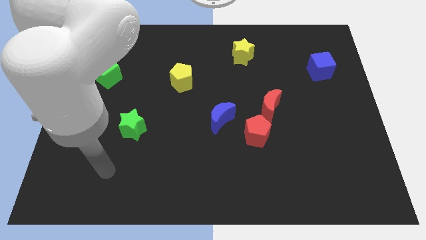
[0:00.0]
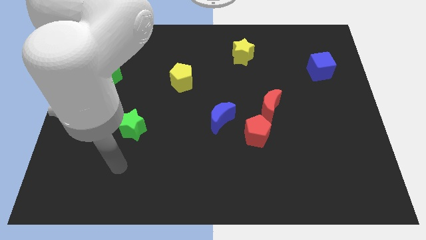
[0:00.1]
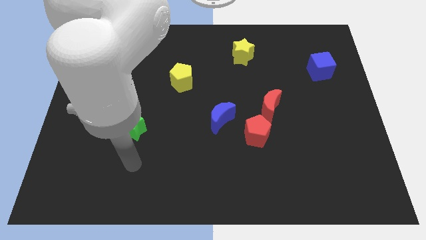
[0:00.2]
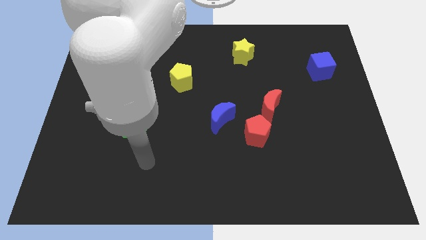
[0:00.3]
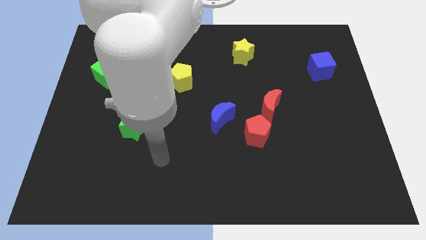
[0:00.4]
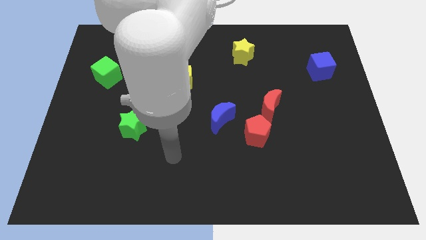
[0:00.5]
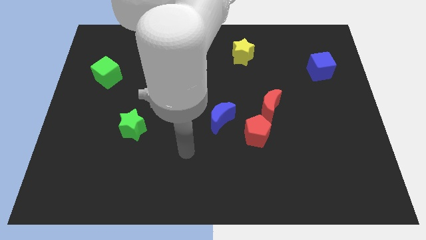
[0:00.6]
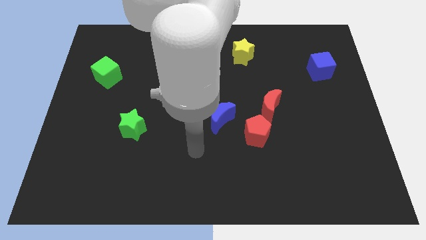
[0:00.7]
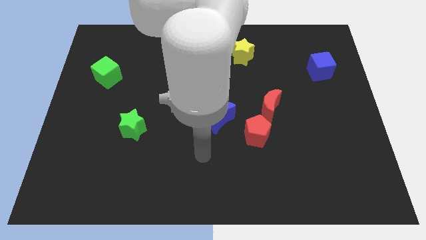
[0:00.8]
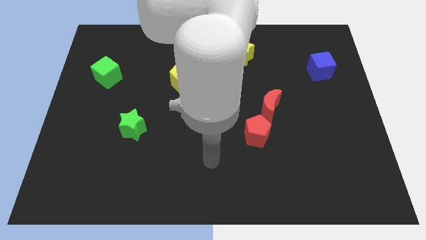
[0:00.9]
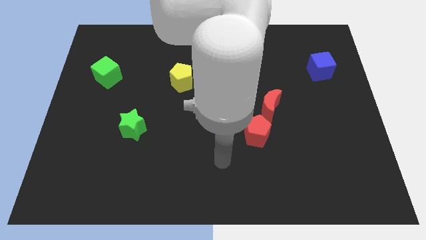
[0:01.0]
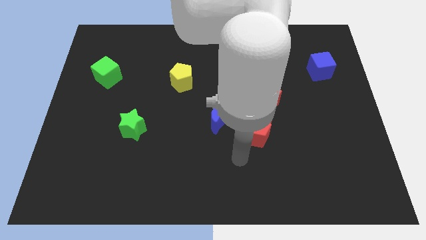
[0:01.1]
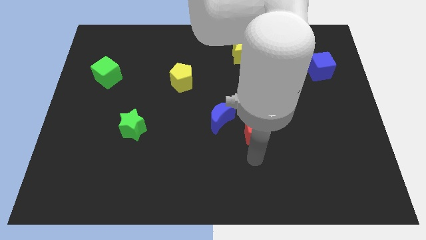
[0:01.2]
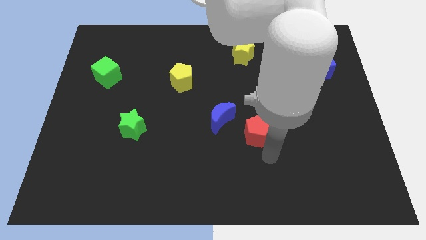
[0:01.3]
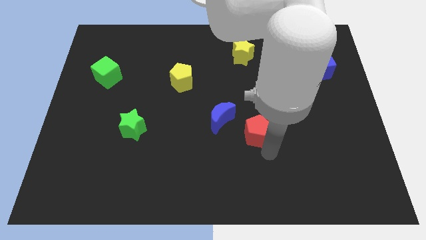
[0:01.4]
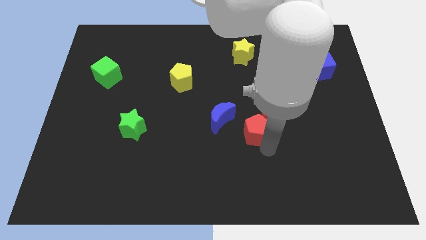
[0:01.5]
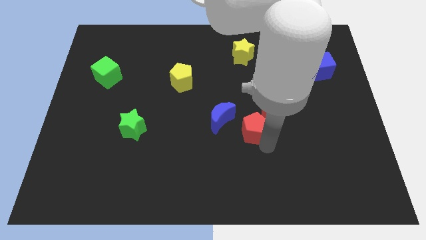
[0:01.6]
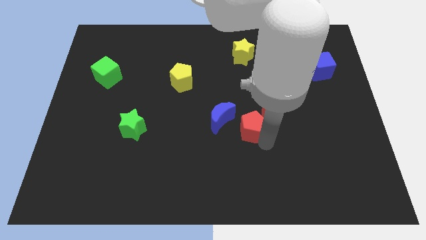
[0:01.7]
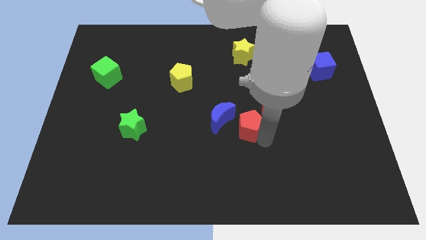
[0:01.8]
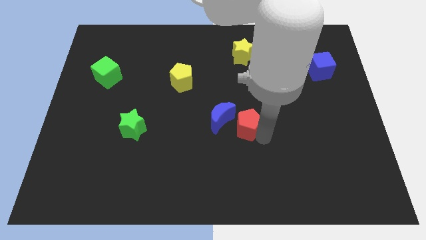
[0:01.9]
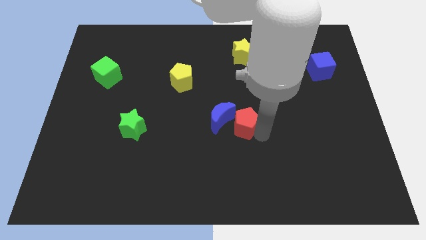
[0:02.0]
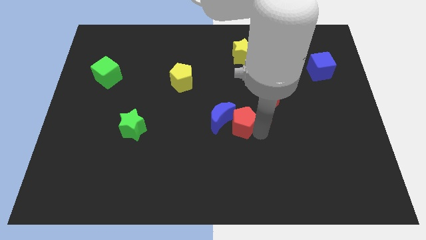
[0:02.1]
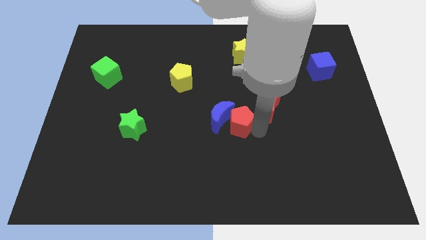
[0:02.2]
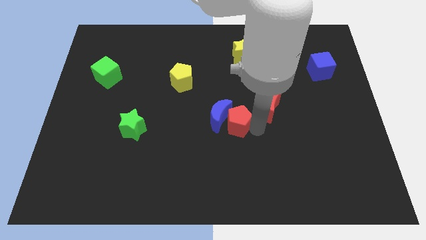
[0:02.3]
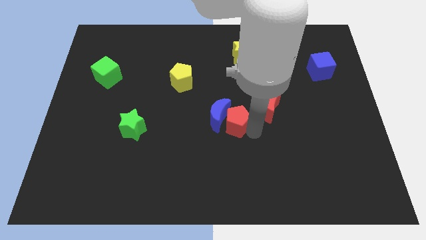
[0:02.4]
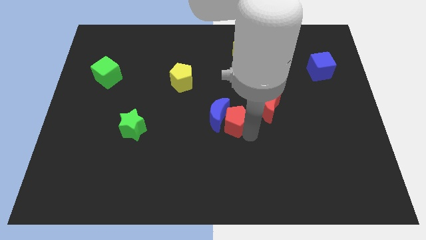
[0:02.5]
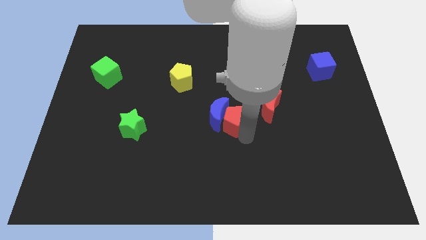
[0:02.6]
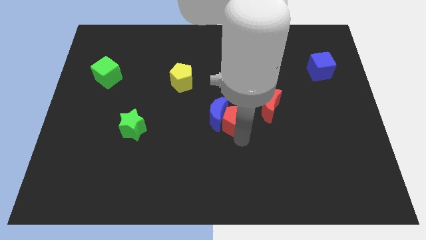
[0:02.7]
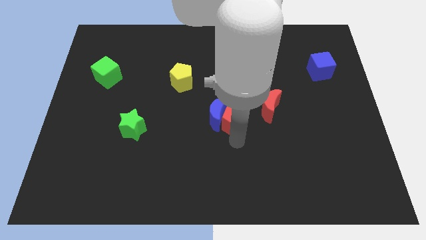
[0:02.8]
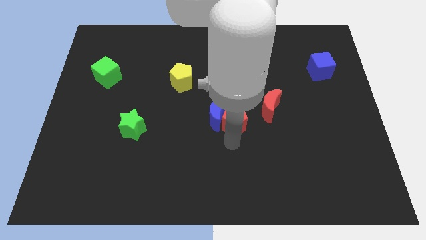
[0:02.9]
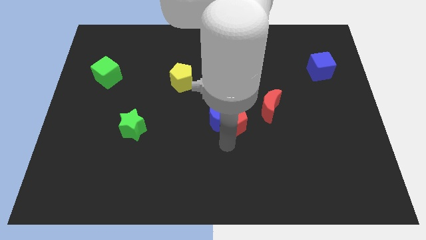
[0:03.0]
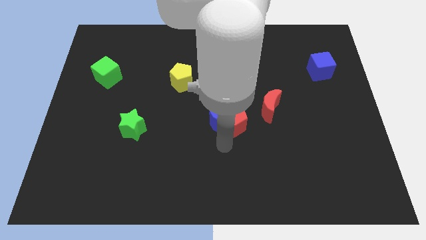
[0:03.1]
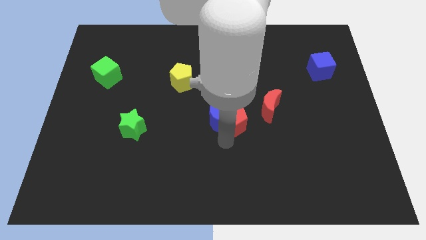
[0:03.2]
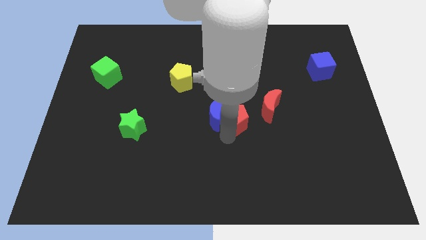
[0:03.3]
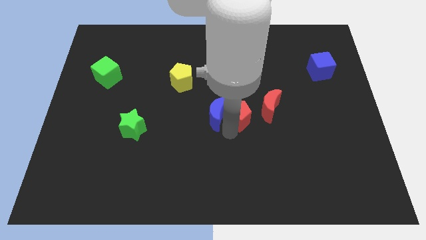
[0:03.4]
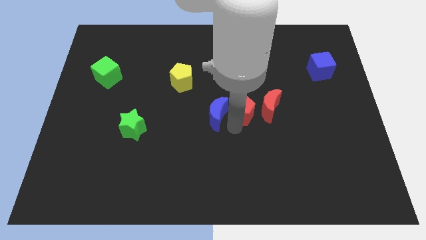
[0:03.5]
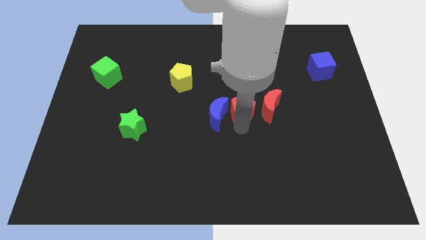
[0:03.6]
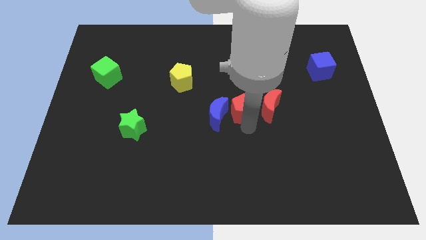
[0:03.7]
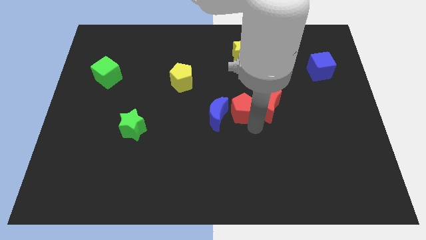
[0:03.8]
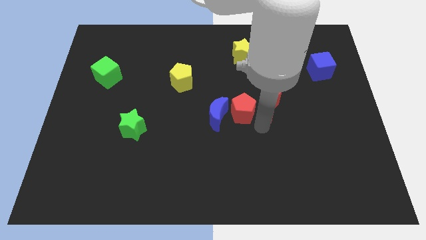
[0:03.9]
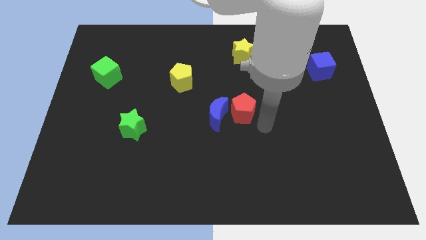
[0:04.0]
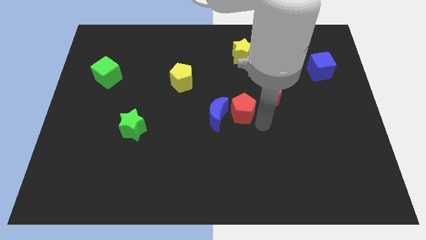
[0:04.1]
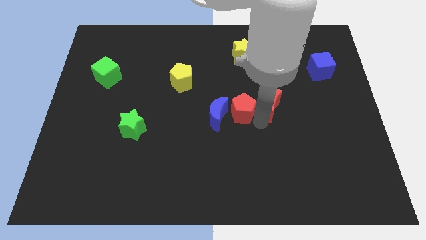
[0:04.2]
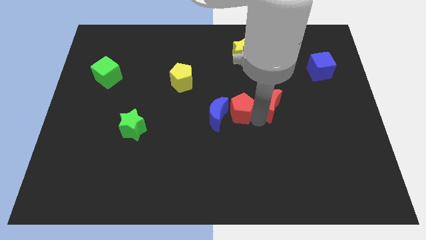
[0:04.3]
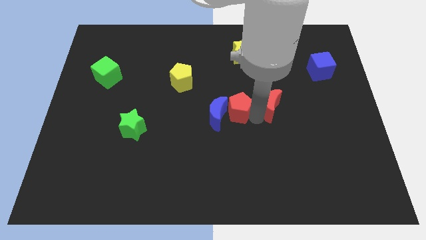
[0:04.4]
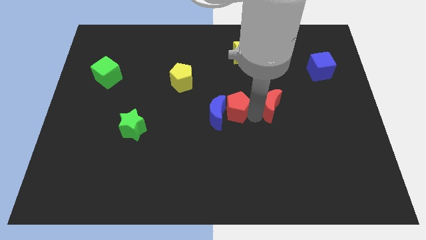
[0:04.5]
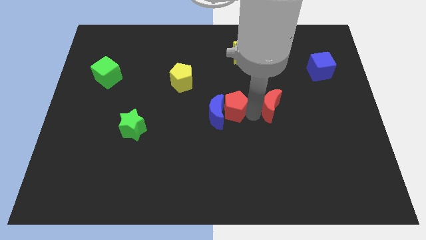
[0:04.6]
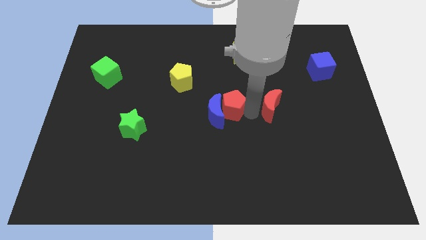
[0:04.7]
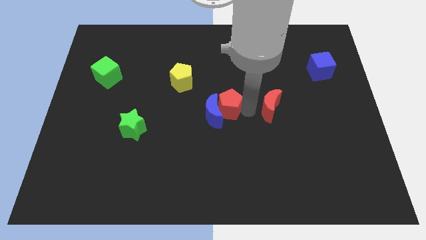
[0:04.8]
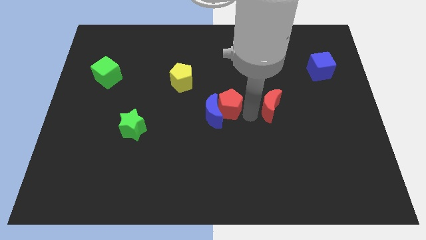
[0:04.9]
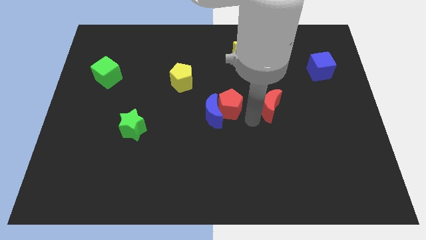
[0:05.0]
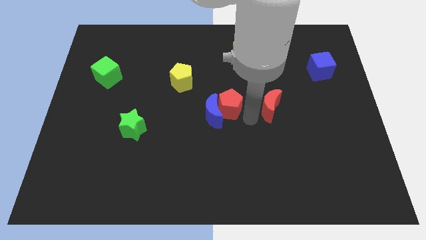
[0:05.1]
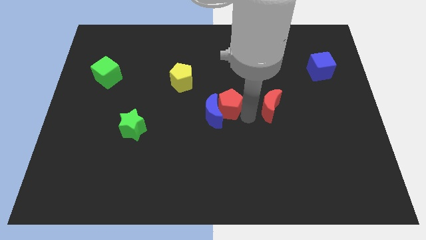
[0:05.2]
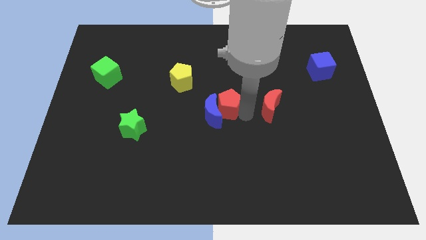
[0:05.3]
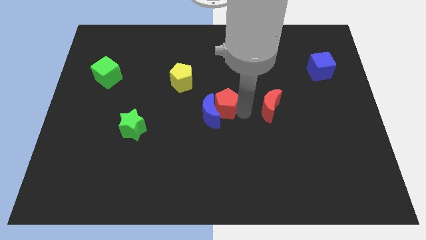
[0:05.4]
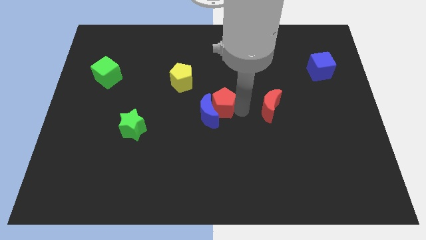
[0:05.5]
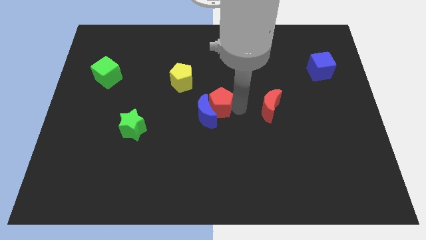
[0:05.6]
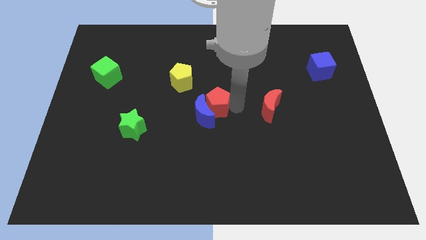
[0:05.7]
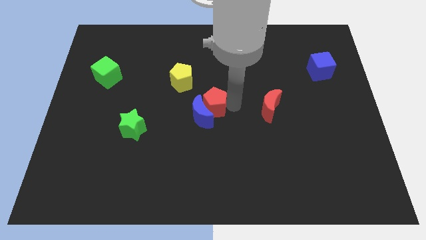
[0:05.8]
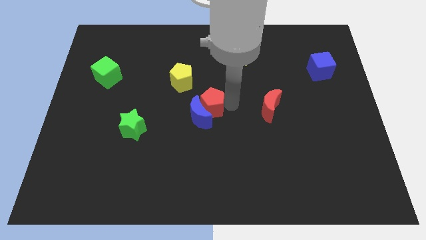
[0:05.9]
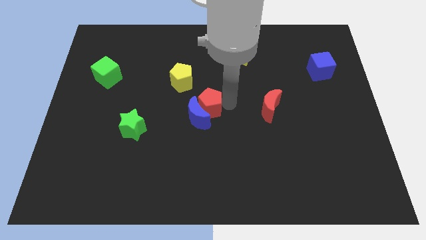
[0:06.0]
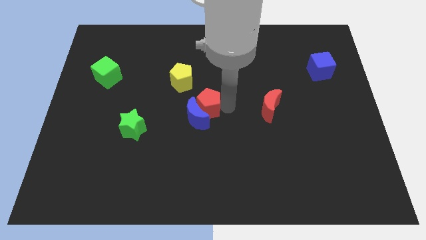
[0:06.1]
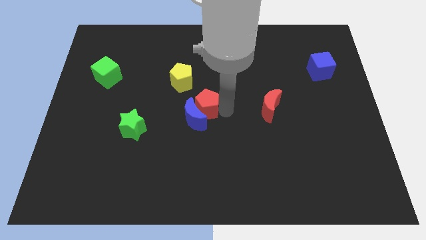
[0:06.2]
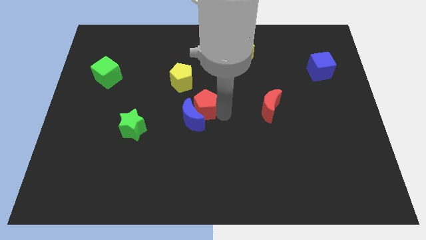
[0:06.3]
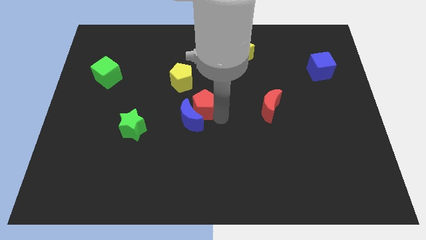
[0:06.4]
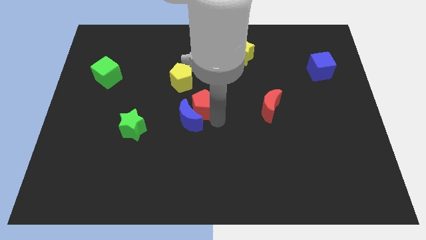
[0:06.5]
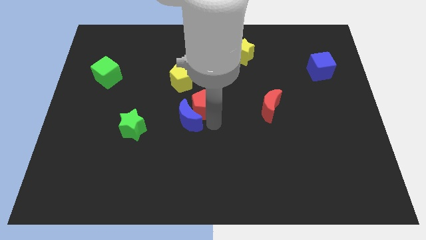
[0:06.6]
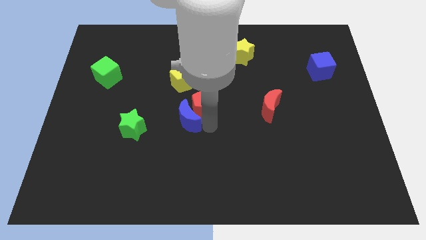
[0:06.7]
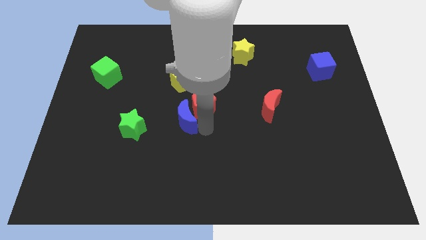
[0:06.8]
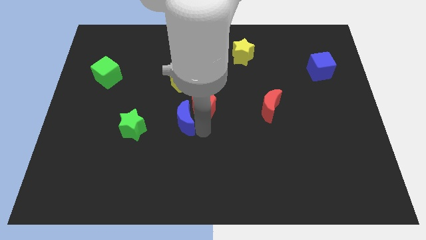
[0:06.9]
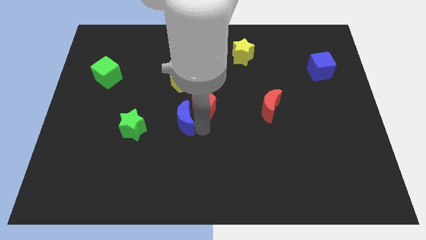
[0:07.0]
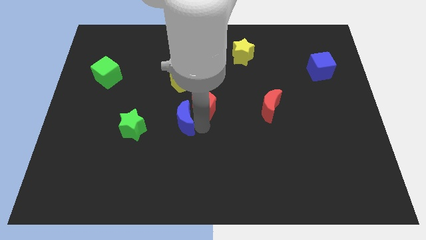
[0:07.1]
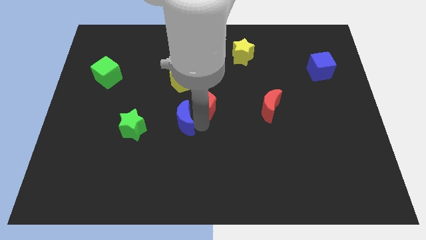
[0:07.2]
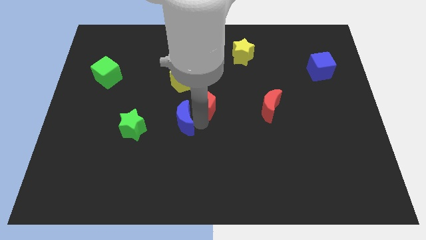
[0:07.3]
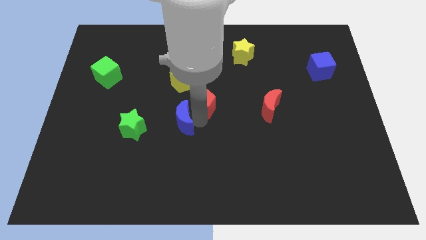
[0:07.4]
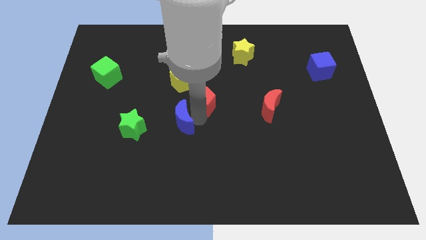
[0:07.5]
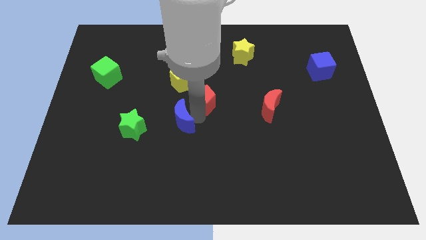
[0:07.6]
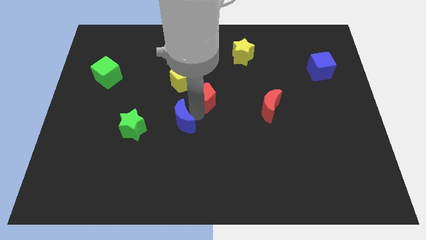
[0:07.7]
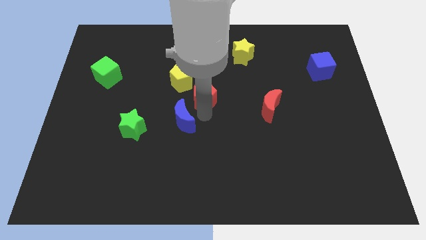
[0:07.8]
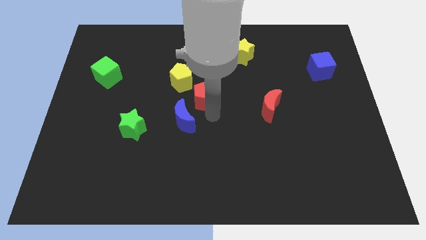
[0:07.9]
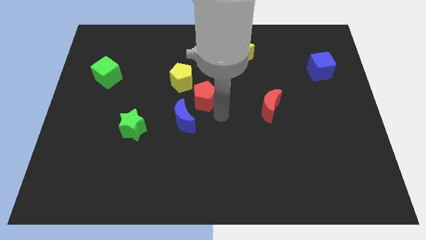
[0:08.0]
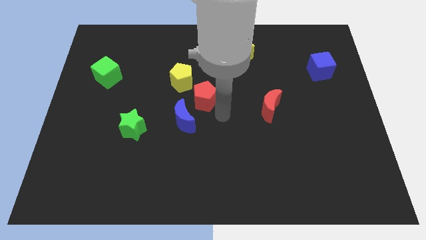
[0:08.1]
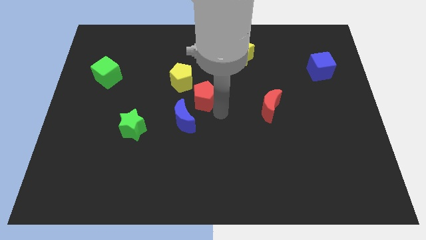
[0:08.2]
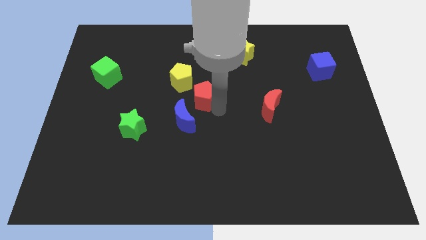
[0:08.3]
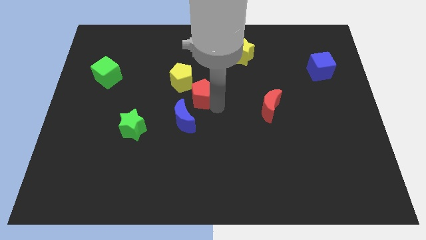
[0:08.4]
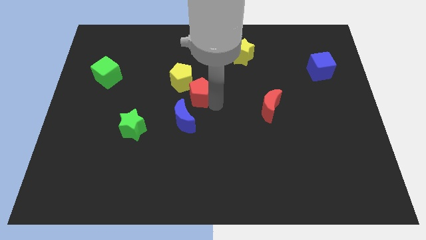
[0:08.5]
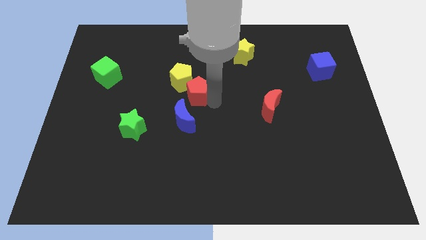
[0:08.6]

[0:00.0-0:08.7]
slide the red pentagon to the yellow pentagon
